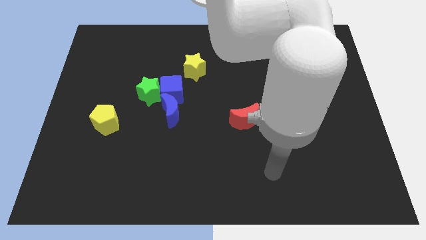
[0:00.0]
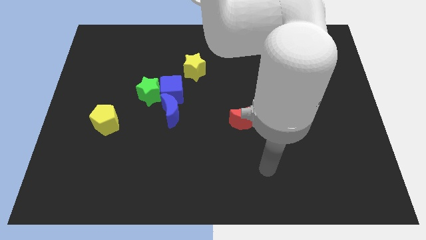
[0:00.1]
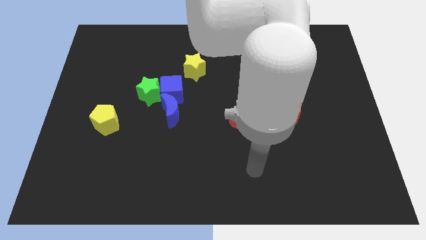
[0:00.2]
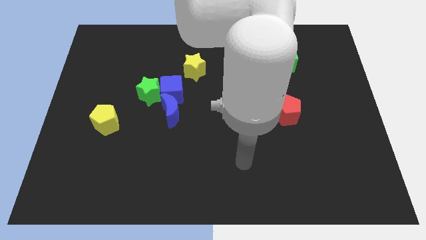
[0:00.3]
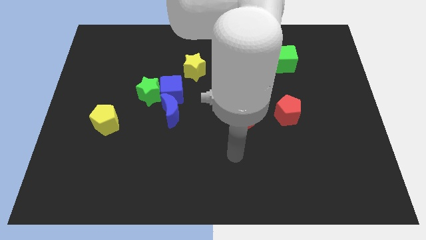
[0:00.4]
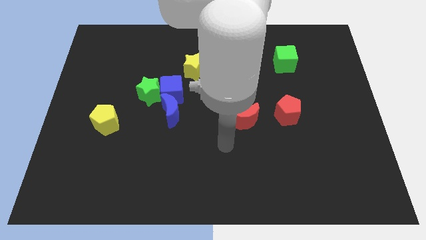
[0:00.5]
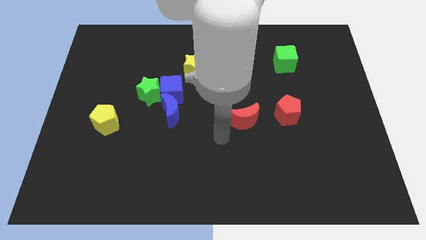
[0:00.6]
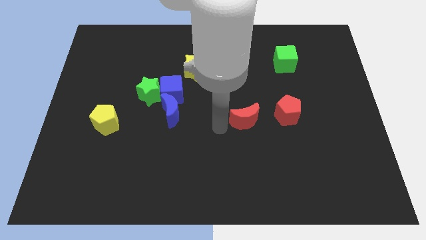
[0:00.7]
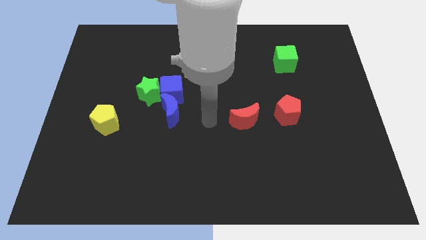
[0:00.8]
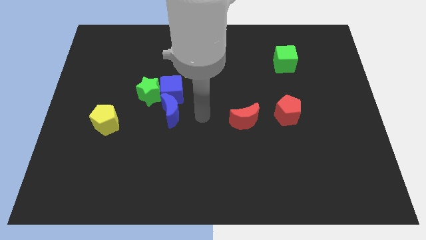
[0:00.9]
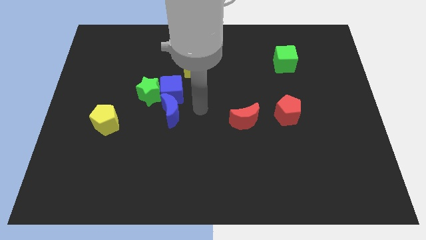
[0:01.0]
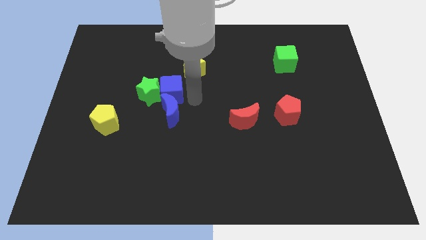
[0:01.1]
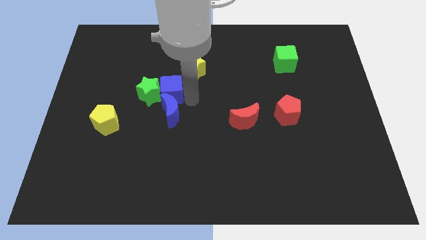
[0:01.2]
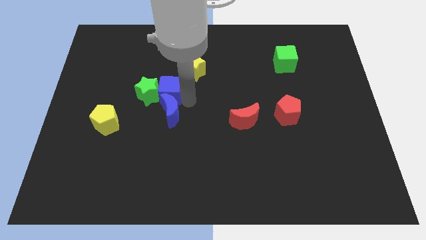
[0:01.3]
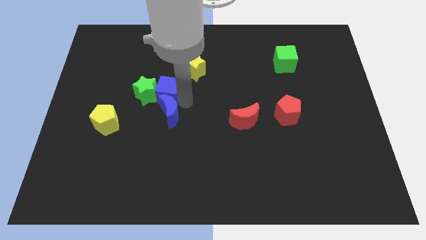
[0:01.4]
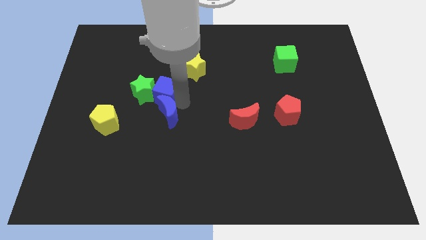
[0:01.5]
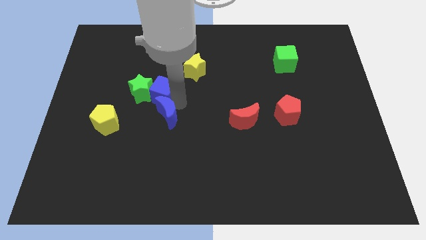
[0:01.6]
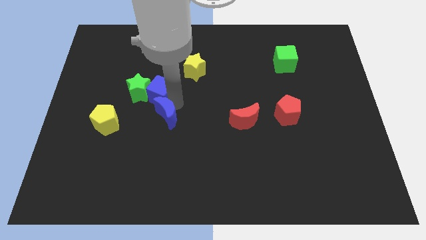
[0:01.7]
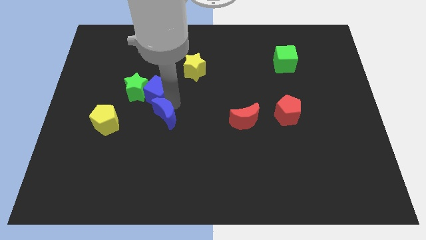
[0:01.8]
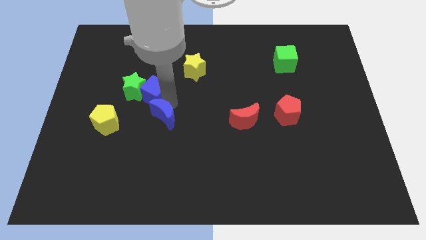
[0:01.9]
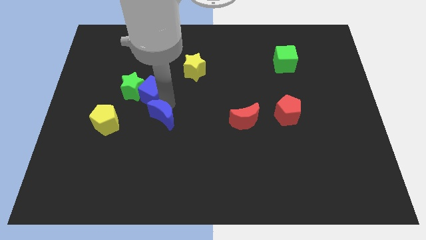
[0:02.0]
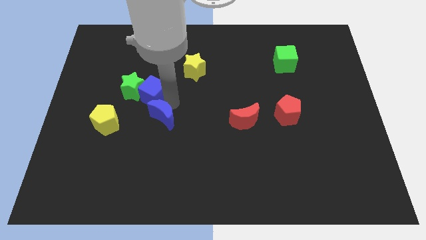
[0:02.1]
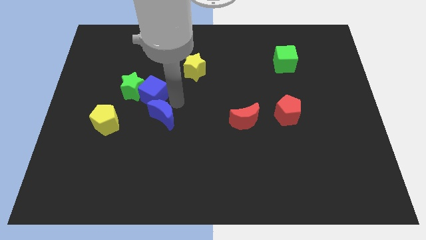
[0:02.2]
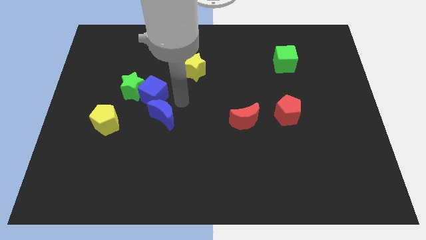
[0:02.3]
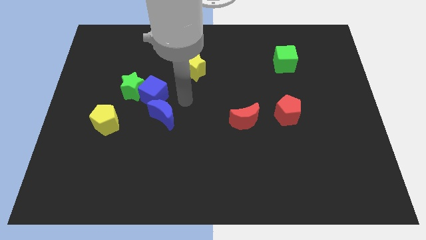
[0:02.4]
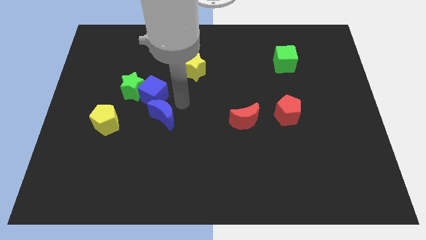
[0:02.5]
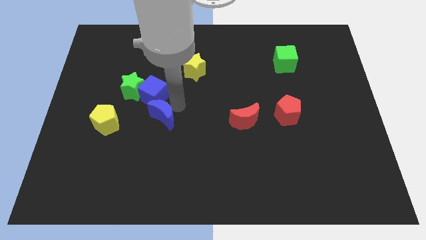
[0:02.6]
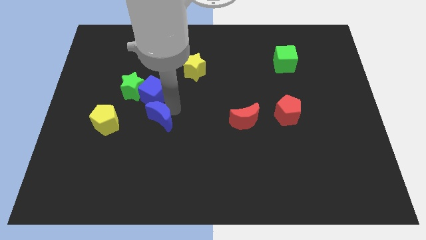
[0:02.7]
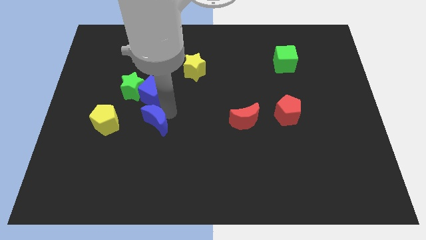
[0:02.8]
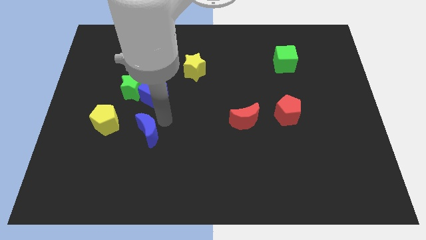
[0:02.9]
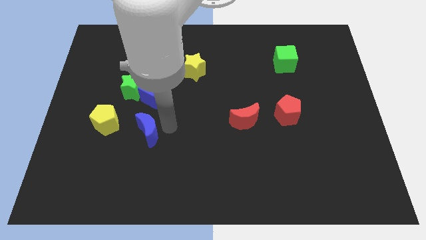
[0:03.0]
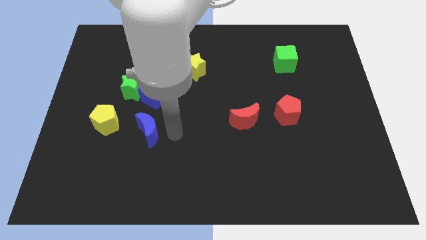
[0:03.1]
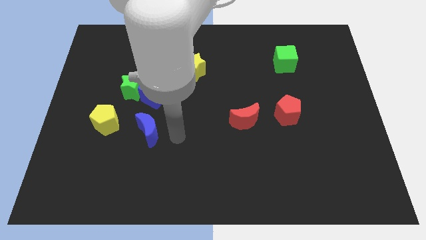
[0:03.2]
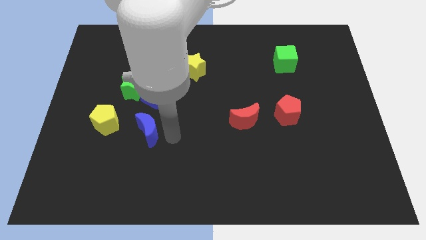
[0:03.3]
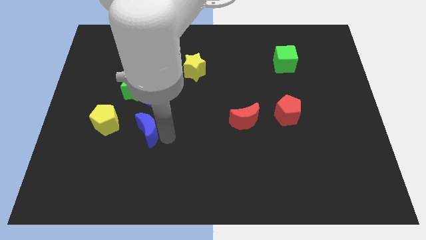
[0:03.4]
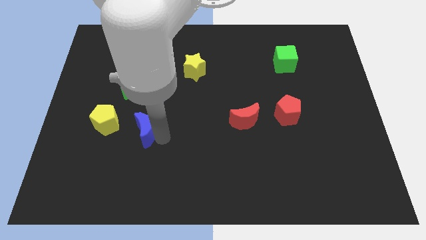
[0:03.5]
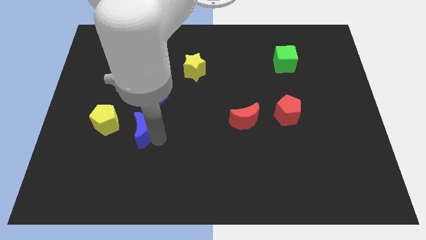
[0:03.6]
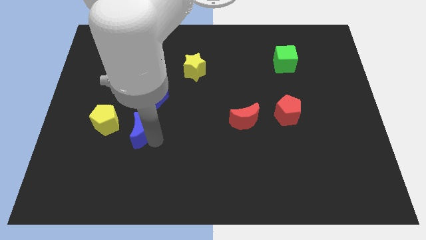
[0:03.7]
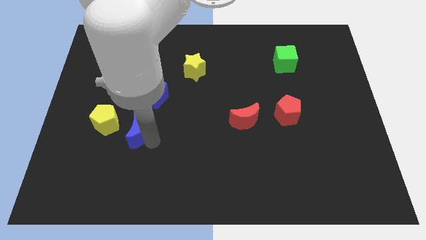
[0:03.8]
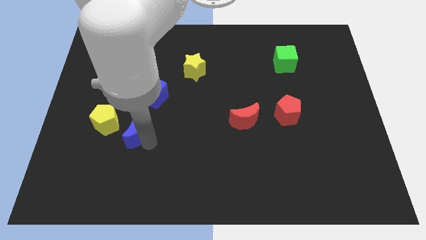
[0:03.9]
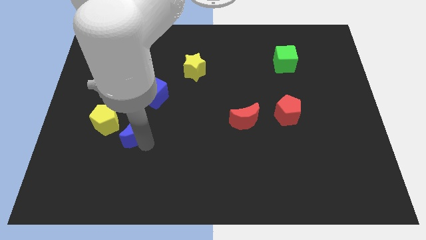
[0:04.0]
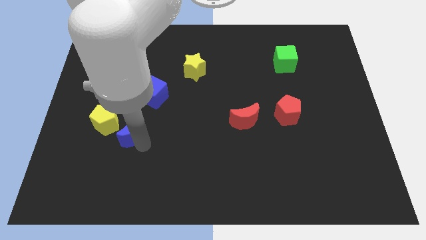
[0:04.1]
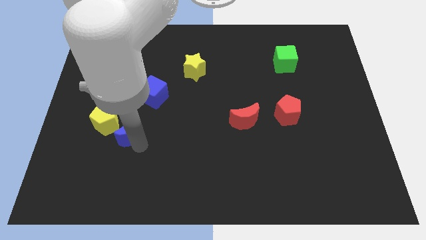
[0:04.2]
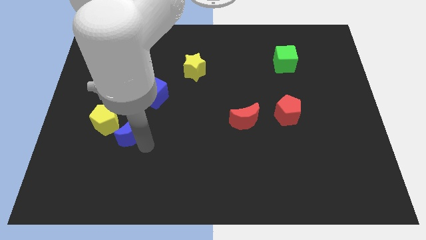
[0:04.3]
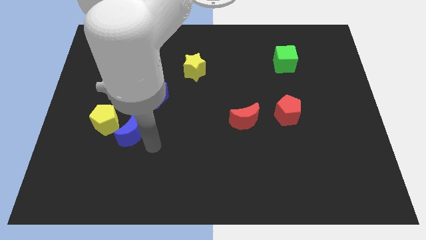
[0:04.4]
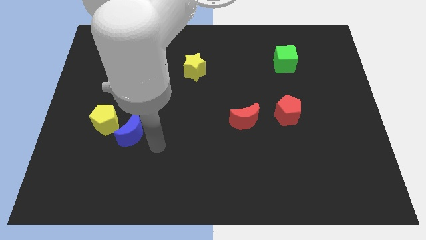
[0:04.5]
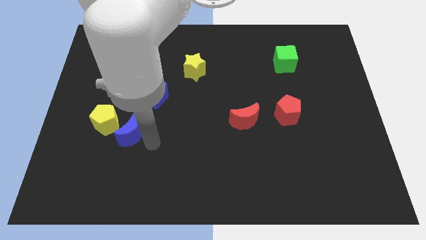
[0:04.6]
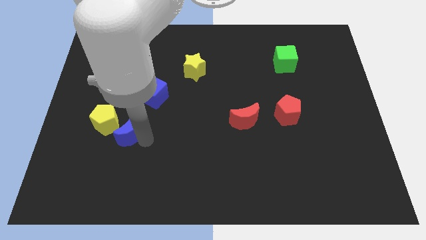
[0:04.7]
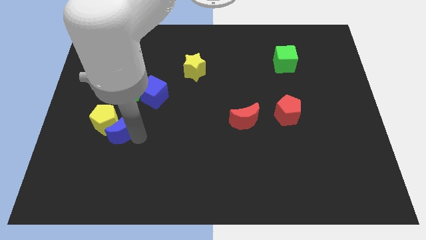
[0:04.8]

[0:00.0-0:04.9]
slide the blue moon towards the yellow pentagon

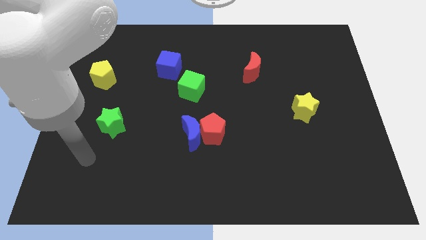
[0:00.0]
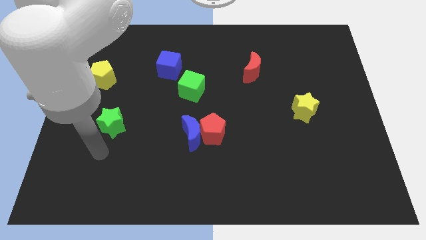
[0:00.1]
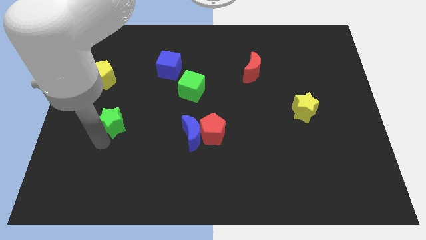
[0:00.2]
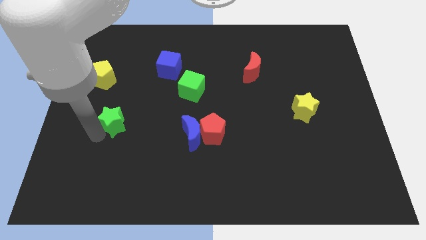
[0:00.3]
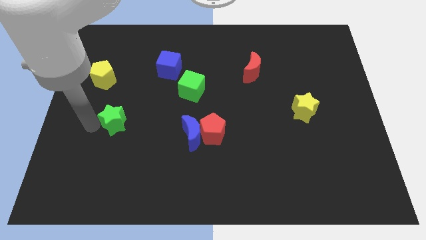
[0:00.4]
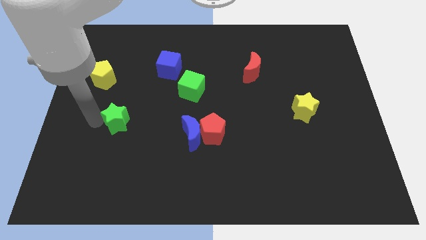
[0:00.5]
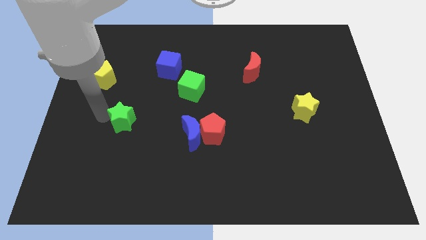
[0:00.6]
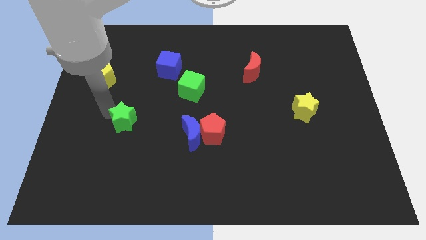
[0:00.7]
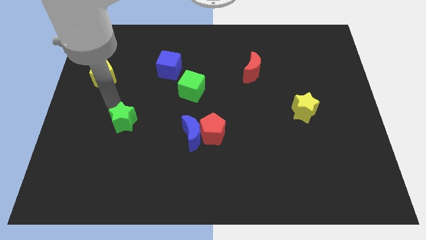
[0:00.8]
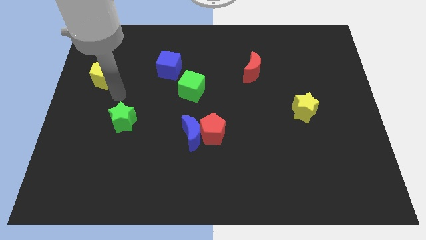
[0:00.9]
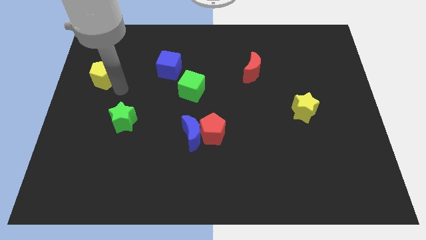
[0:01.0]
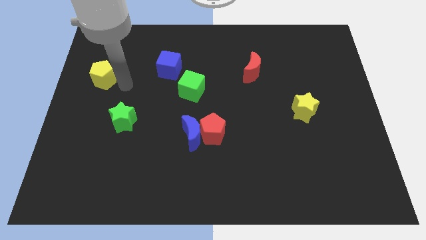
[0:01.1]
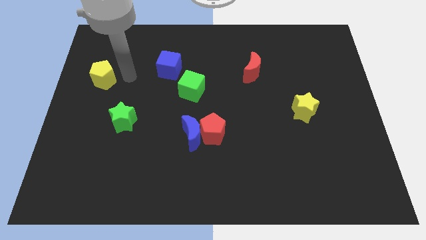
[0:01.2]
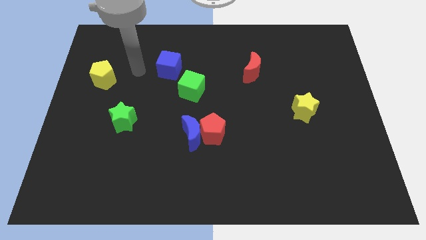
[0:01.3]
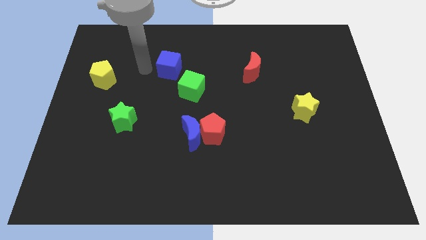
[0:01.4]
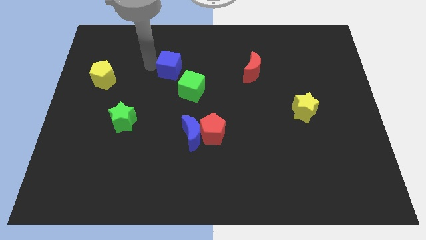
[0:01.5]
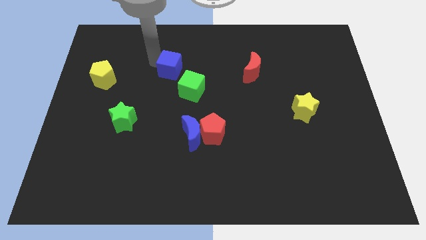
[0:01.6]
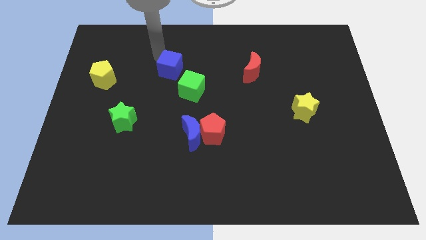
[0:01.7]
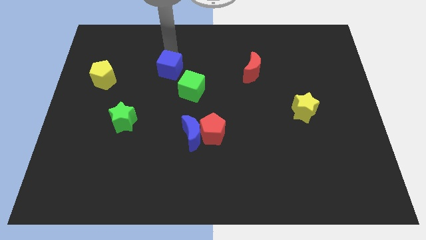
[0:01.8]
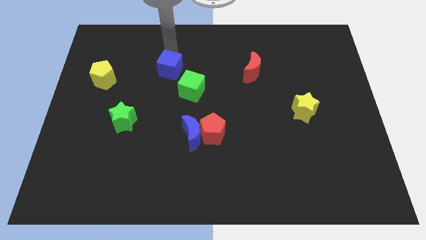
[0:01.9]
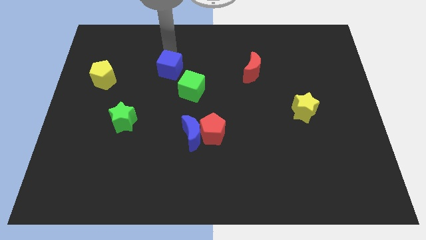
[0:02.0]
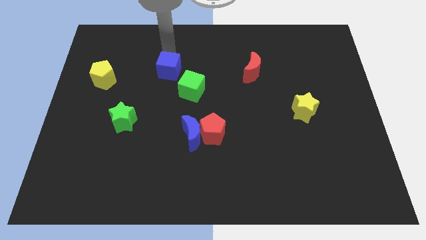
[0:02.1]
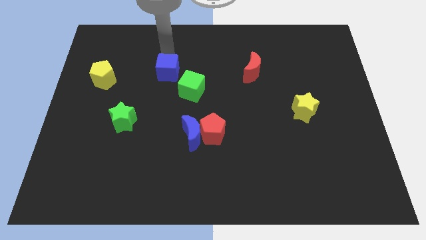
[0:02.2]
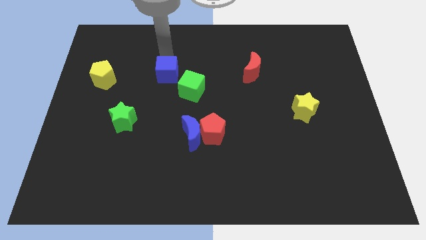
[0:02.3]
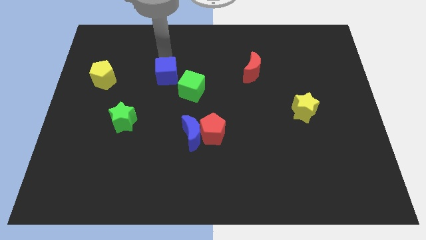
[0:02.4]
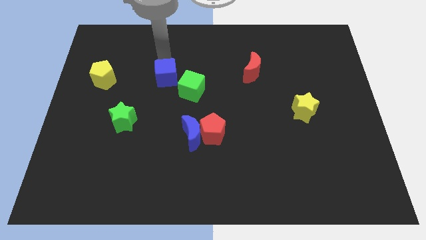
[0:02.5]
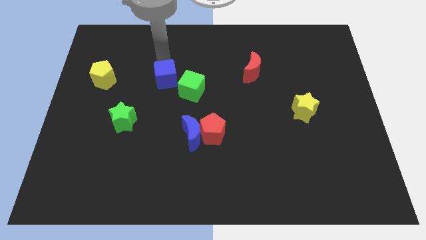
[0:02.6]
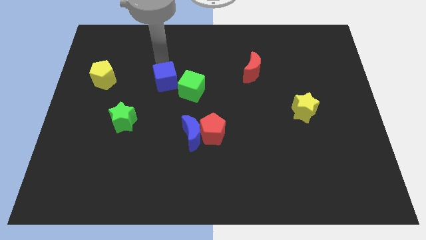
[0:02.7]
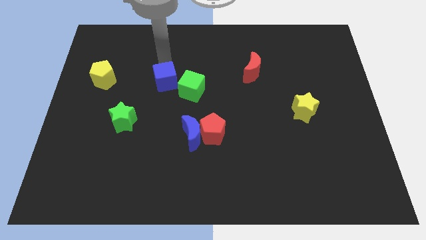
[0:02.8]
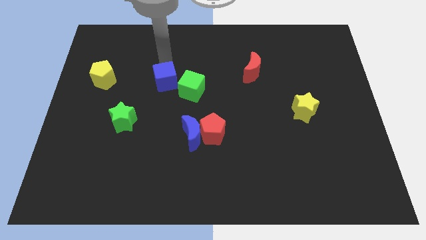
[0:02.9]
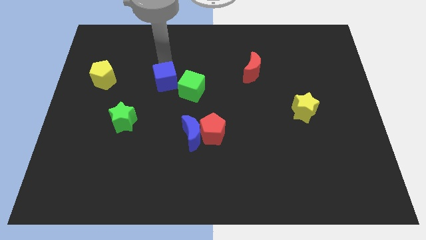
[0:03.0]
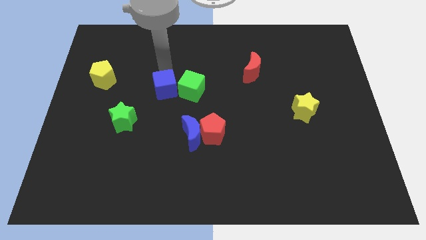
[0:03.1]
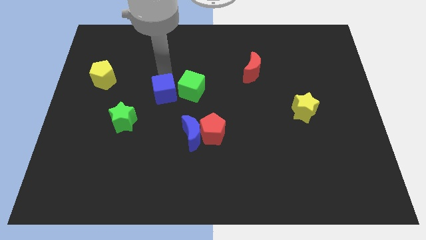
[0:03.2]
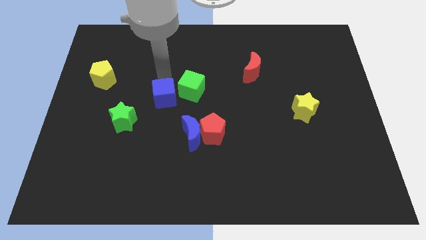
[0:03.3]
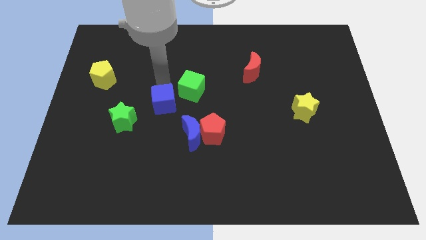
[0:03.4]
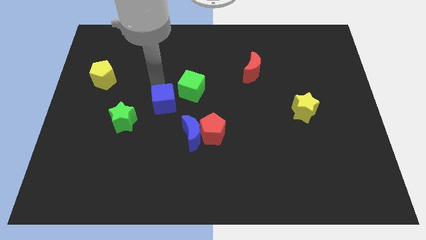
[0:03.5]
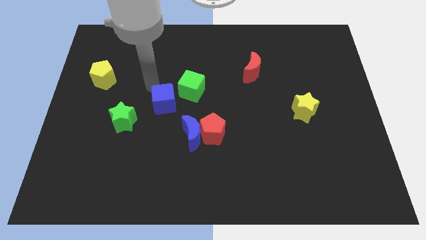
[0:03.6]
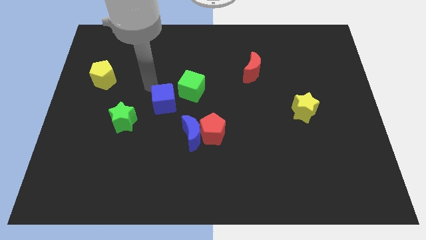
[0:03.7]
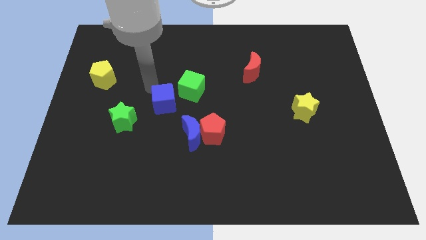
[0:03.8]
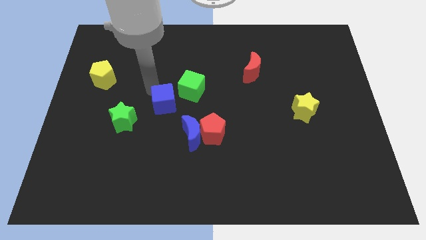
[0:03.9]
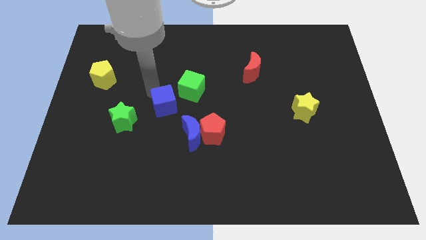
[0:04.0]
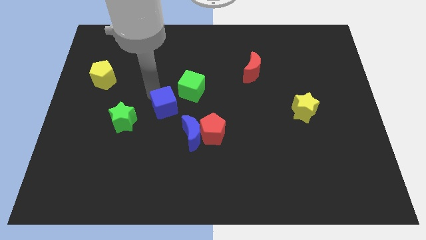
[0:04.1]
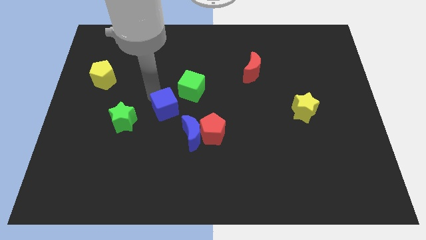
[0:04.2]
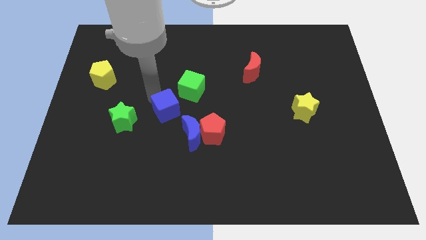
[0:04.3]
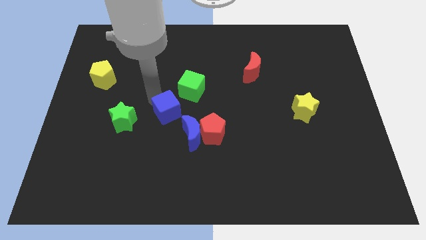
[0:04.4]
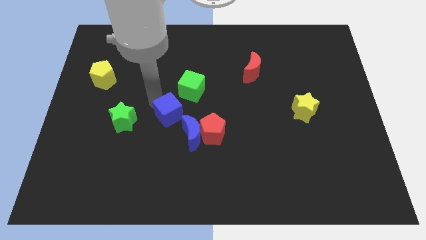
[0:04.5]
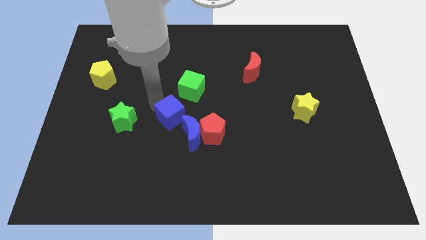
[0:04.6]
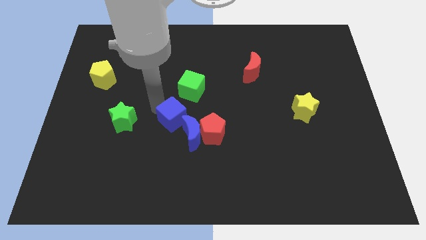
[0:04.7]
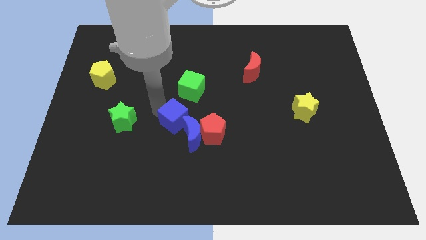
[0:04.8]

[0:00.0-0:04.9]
slide the blue cube to the blue moon
